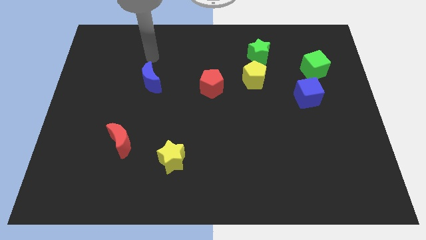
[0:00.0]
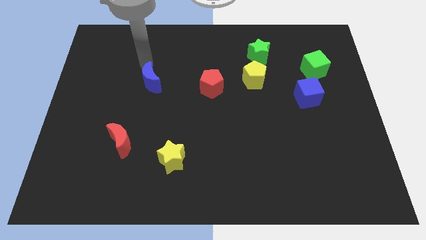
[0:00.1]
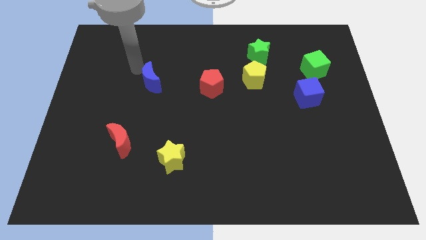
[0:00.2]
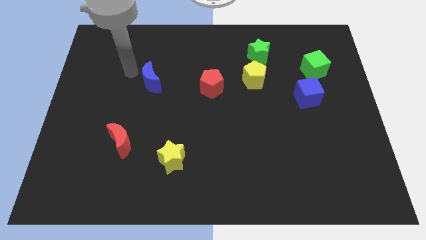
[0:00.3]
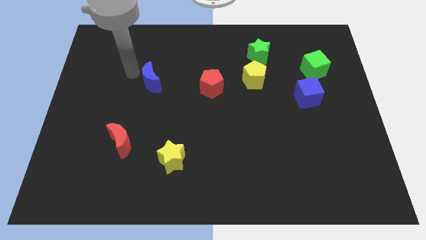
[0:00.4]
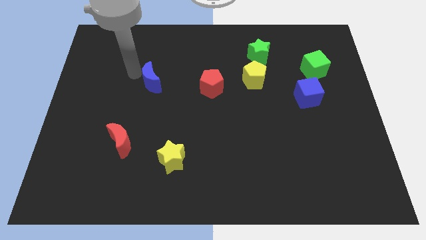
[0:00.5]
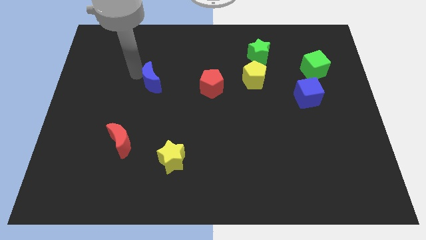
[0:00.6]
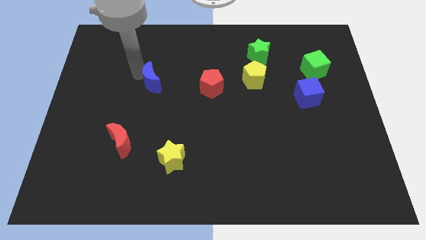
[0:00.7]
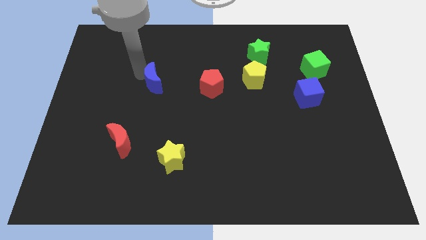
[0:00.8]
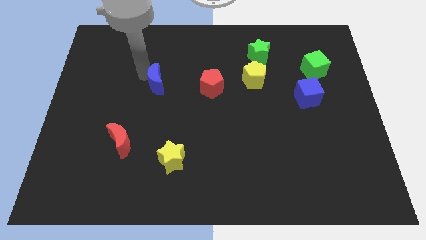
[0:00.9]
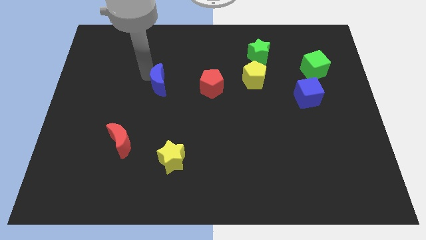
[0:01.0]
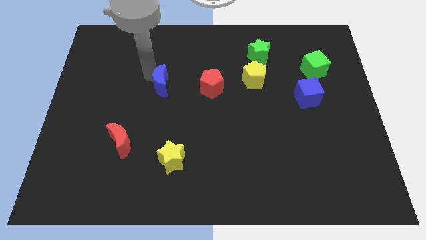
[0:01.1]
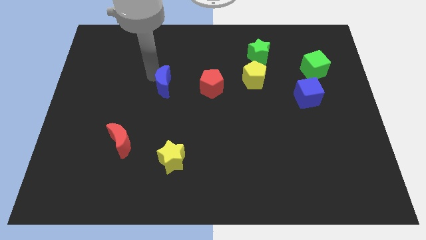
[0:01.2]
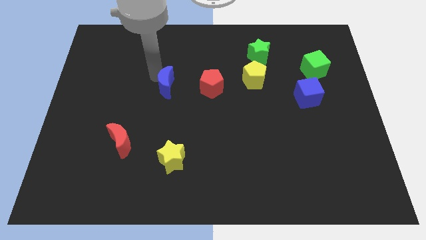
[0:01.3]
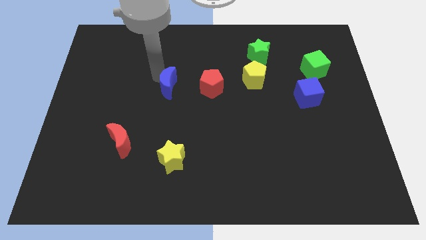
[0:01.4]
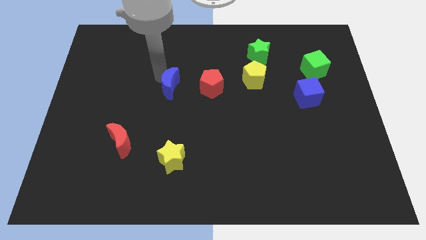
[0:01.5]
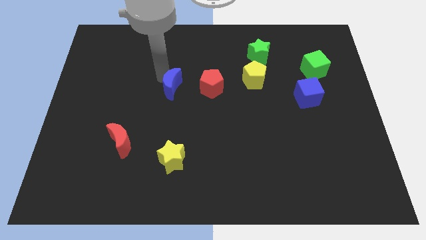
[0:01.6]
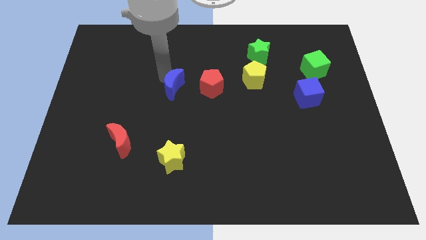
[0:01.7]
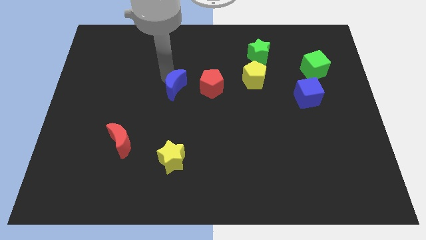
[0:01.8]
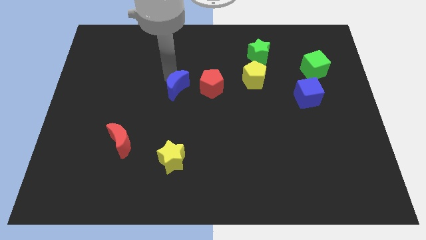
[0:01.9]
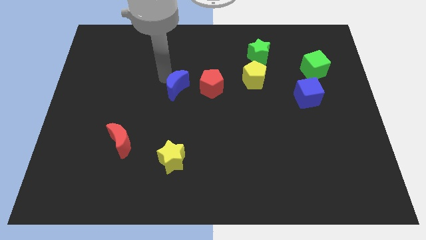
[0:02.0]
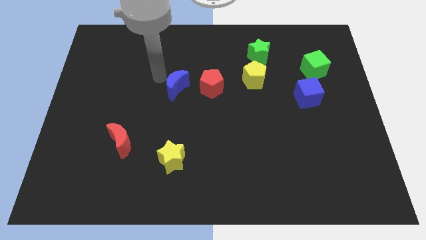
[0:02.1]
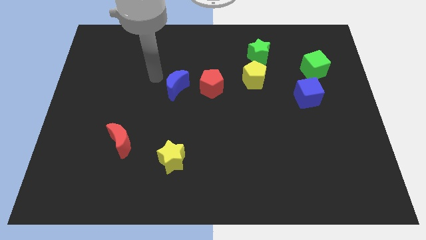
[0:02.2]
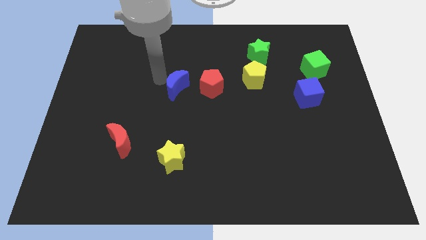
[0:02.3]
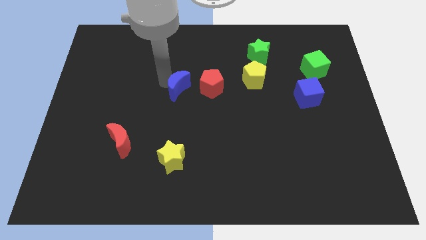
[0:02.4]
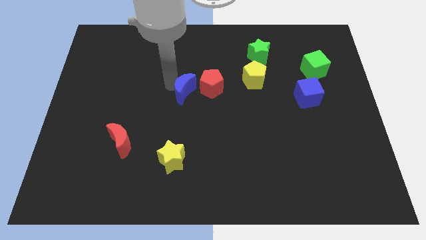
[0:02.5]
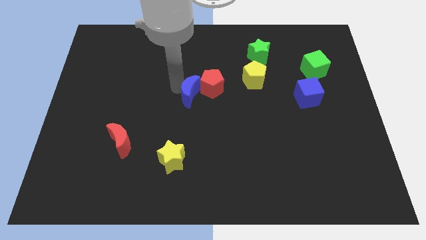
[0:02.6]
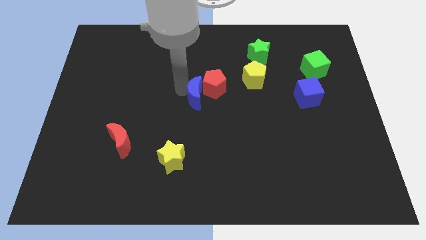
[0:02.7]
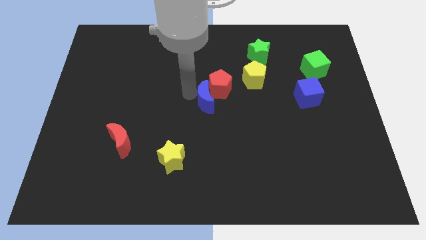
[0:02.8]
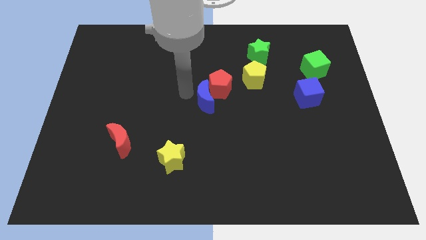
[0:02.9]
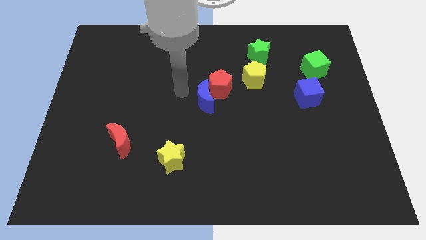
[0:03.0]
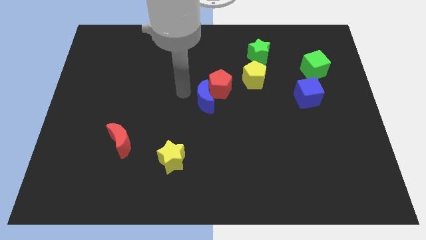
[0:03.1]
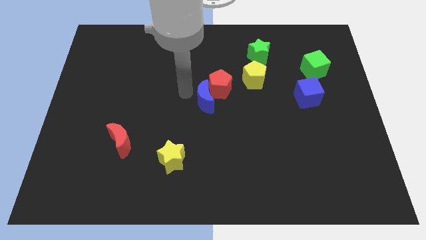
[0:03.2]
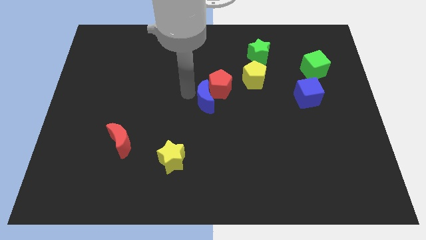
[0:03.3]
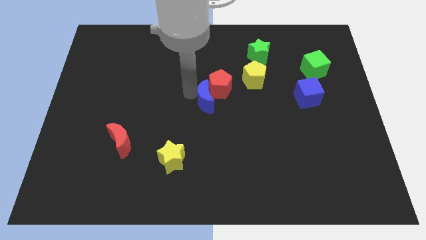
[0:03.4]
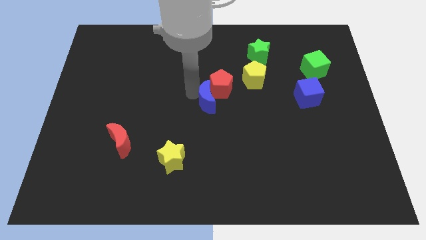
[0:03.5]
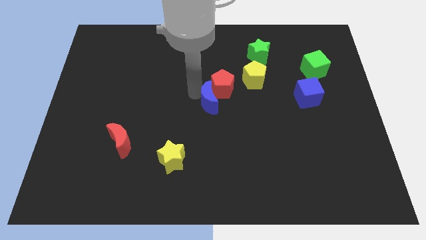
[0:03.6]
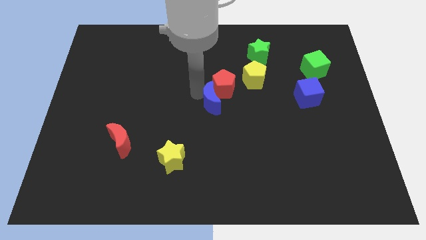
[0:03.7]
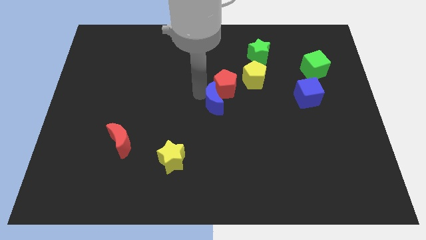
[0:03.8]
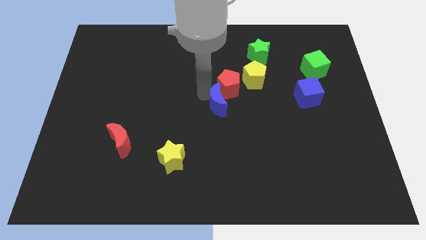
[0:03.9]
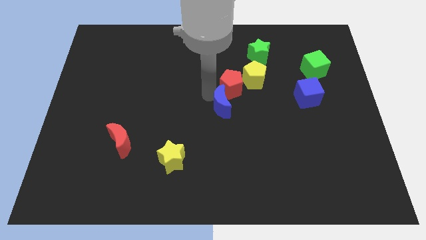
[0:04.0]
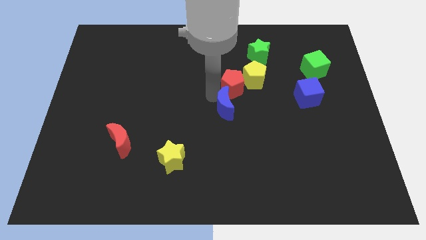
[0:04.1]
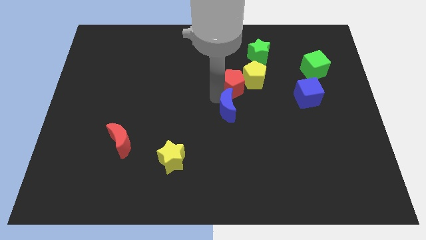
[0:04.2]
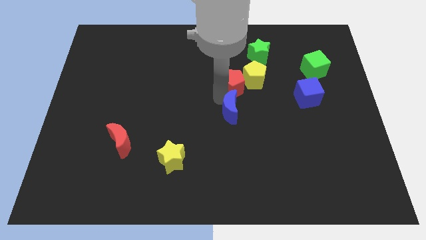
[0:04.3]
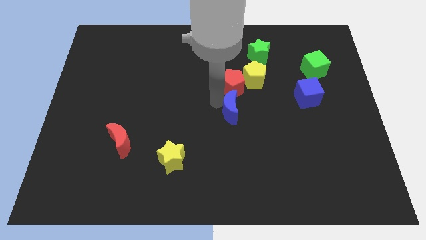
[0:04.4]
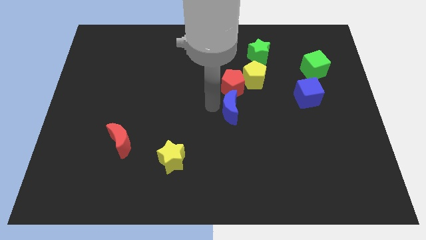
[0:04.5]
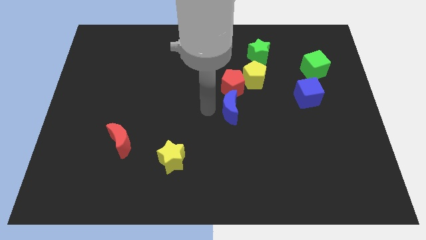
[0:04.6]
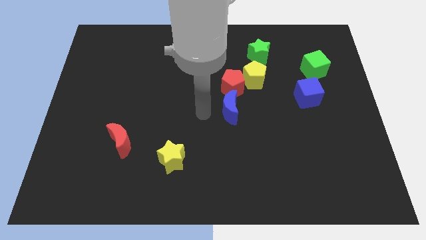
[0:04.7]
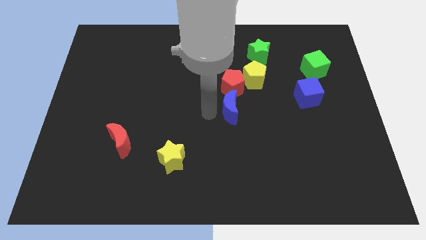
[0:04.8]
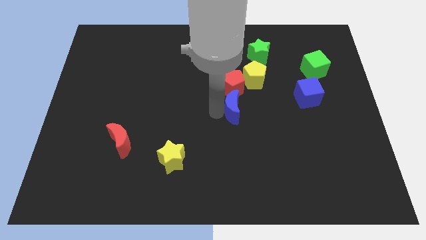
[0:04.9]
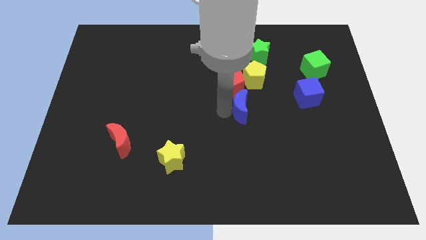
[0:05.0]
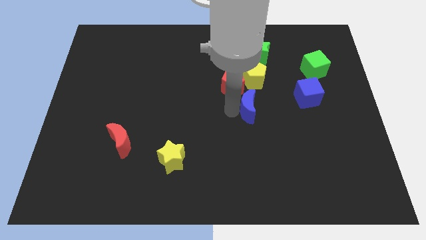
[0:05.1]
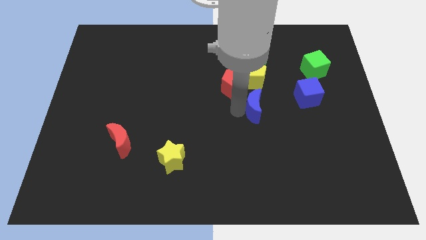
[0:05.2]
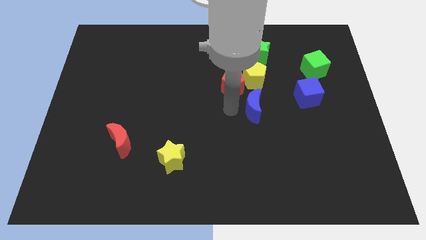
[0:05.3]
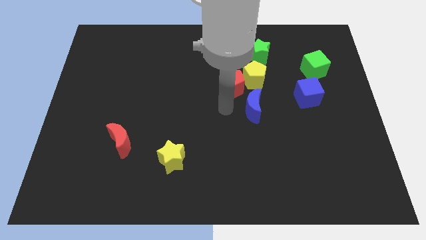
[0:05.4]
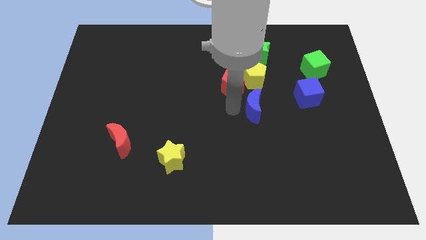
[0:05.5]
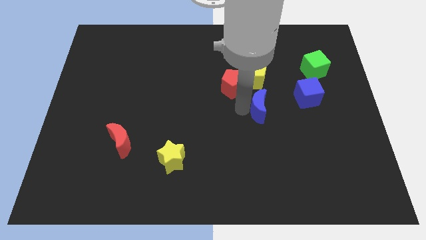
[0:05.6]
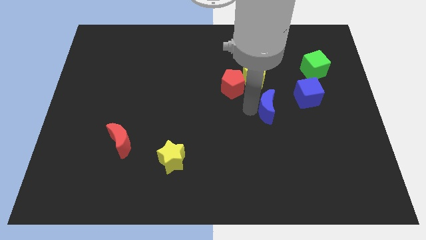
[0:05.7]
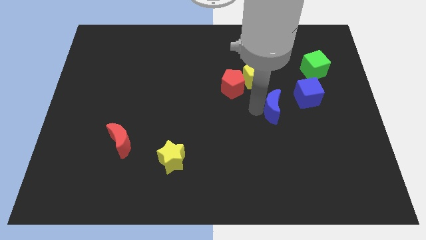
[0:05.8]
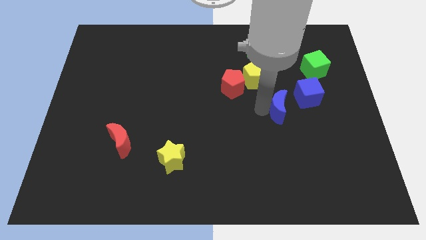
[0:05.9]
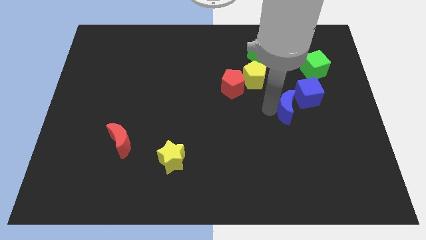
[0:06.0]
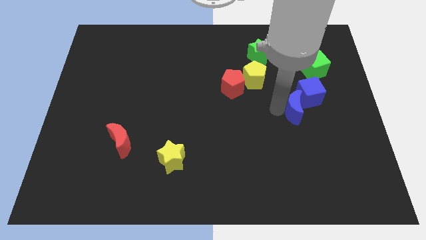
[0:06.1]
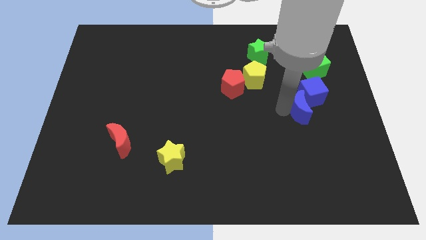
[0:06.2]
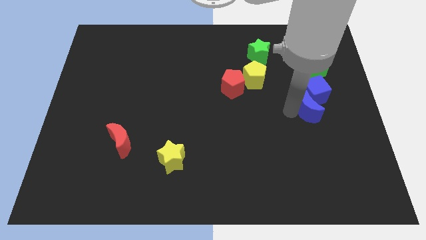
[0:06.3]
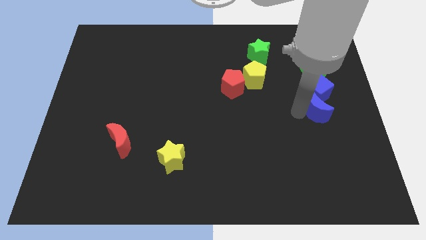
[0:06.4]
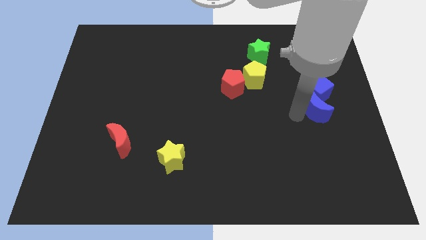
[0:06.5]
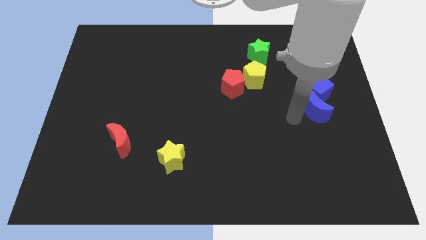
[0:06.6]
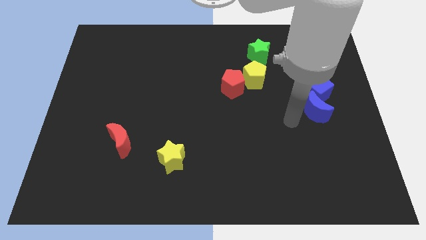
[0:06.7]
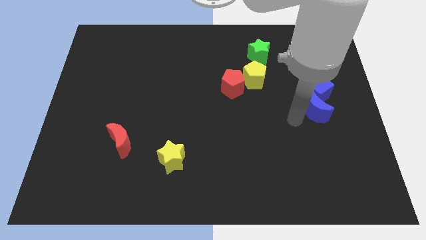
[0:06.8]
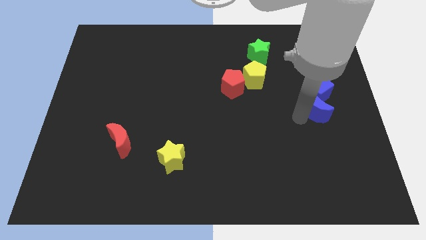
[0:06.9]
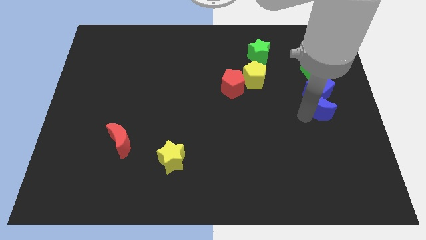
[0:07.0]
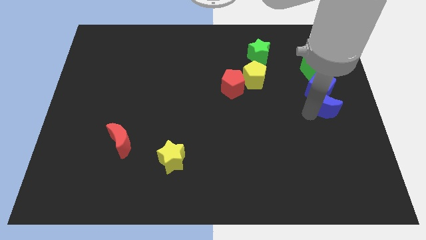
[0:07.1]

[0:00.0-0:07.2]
move the blue moon to the center right
